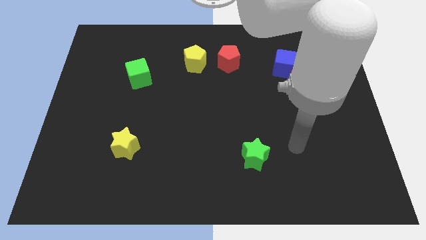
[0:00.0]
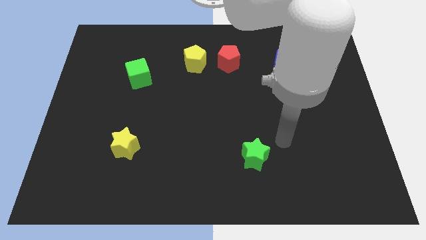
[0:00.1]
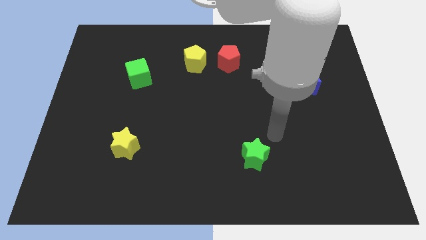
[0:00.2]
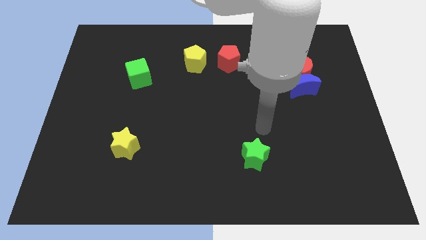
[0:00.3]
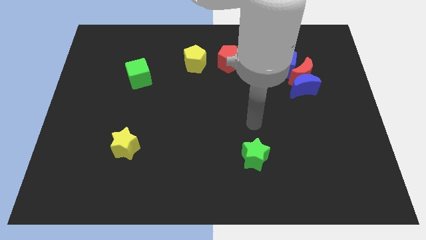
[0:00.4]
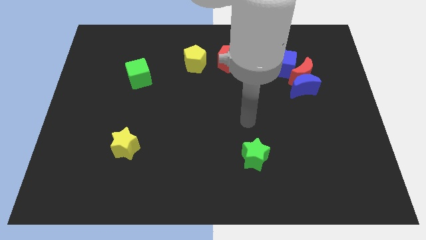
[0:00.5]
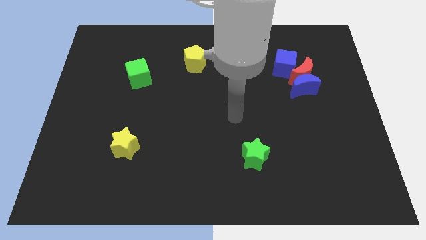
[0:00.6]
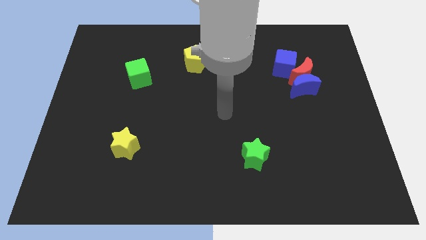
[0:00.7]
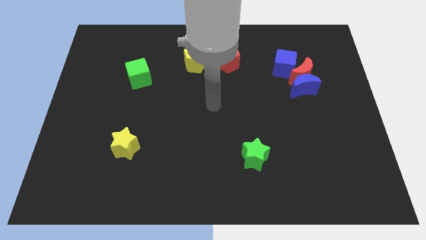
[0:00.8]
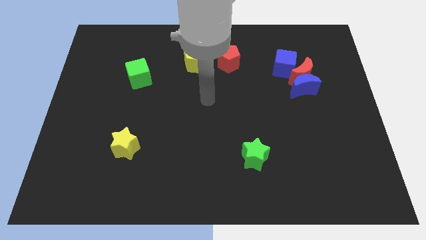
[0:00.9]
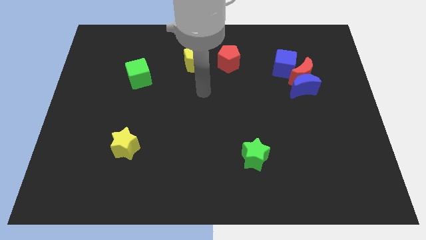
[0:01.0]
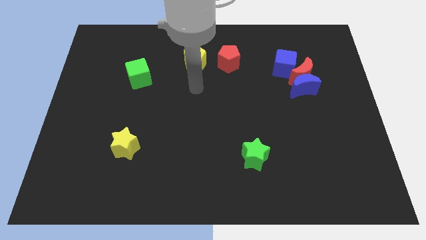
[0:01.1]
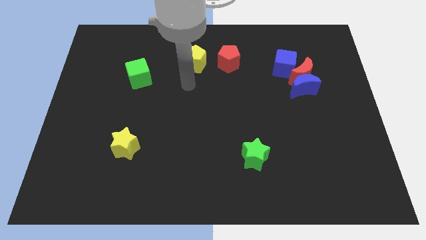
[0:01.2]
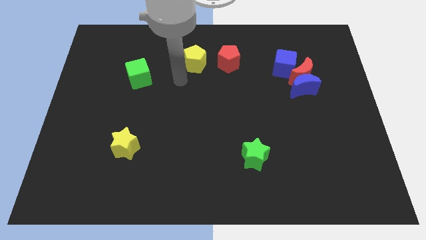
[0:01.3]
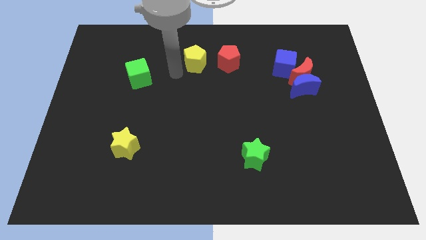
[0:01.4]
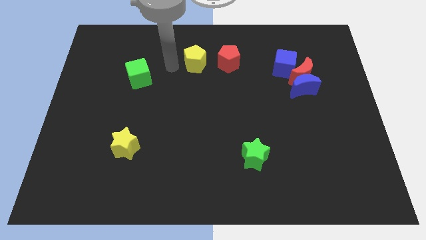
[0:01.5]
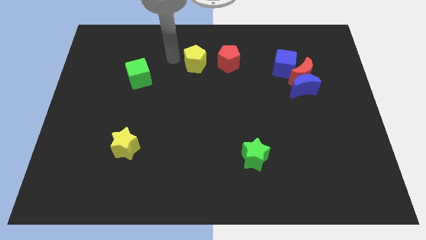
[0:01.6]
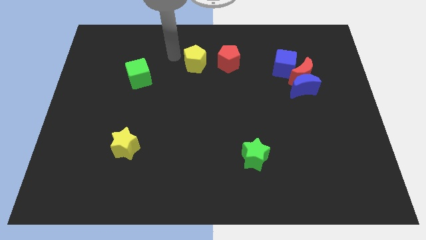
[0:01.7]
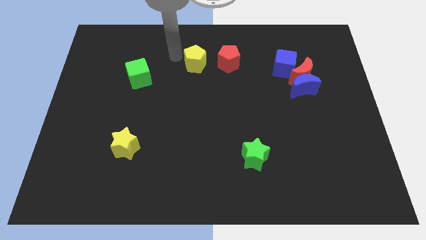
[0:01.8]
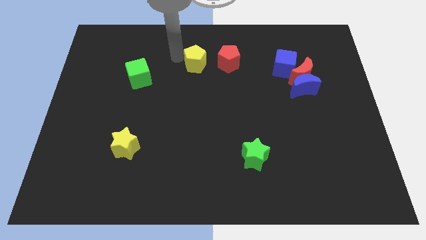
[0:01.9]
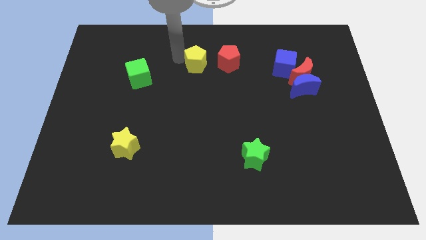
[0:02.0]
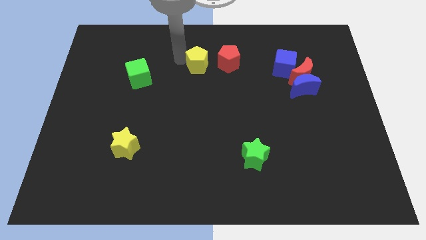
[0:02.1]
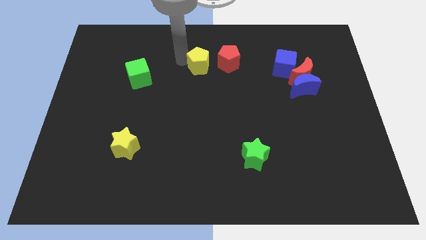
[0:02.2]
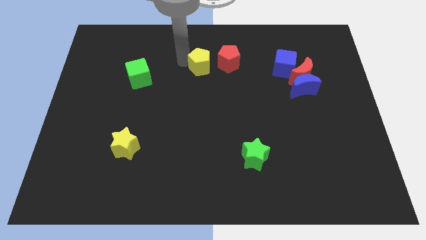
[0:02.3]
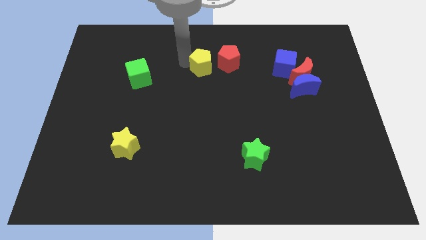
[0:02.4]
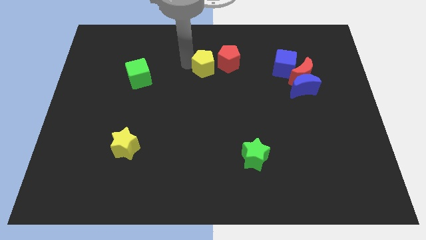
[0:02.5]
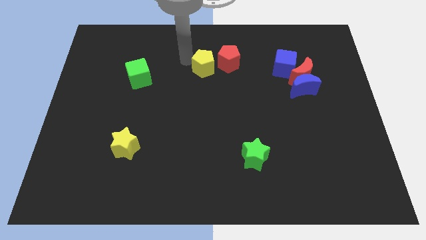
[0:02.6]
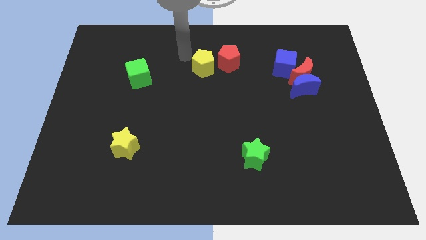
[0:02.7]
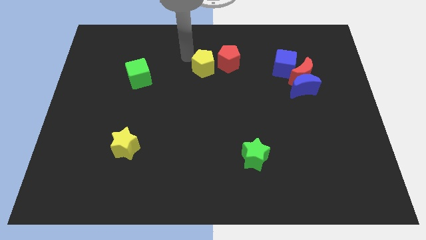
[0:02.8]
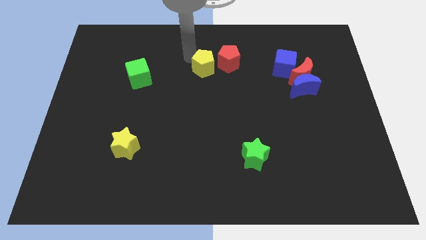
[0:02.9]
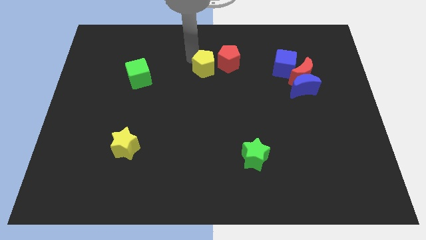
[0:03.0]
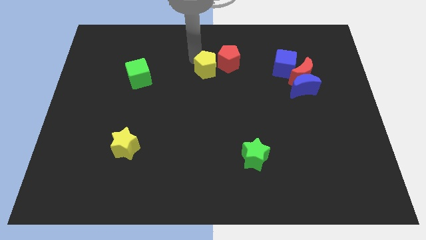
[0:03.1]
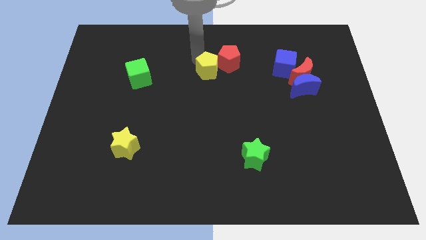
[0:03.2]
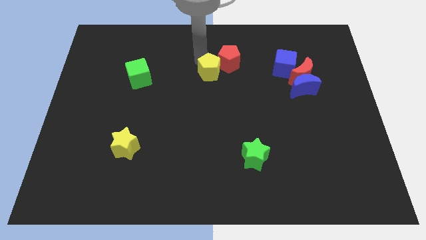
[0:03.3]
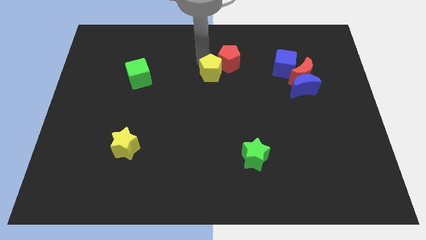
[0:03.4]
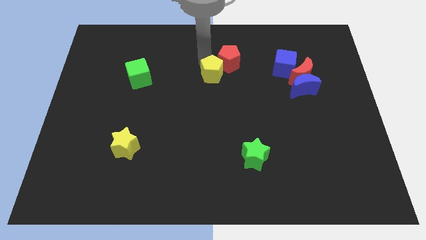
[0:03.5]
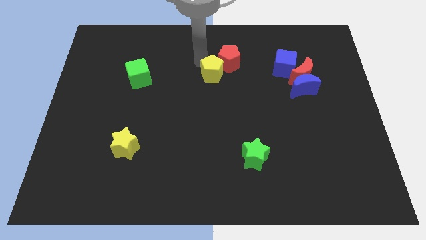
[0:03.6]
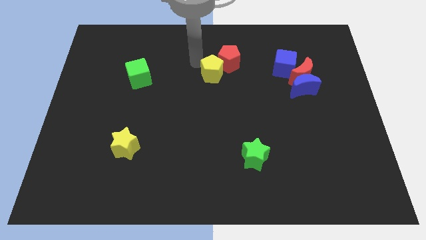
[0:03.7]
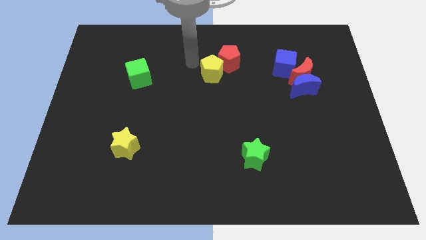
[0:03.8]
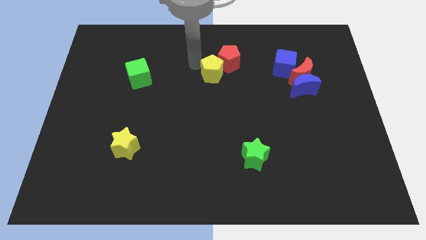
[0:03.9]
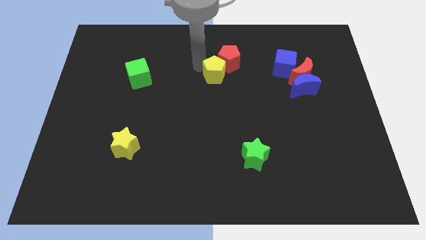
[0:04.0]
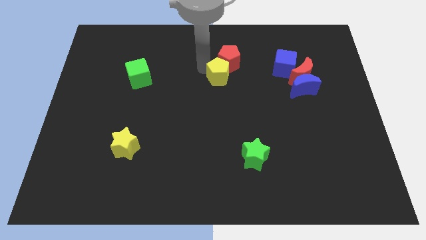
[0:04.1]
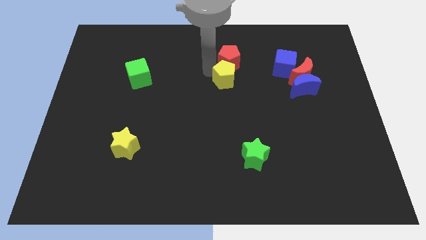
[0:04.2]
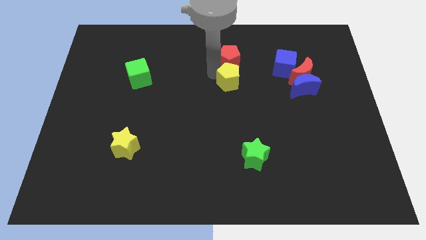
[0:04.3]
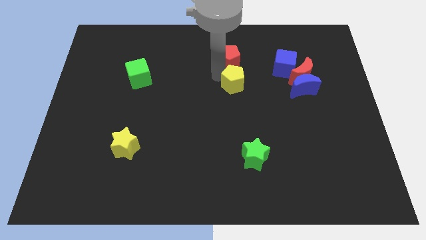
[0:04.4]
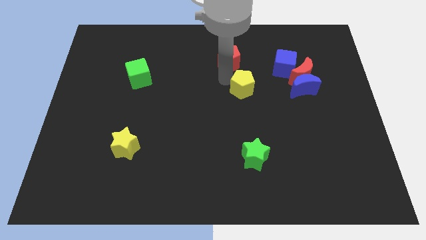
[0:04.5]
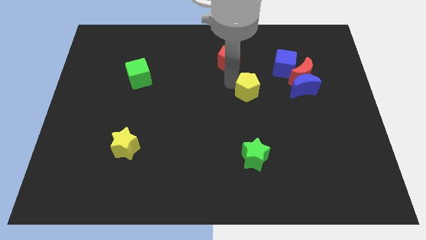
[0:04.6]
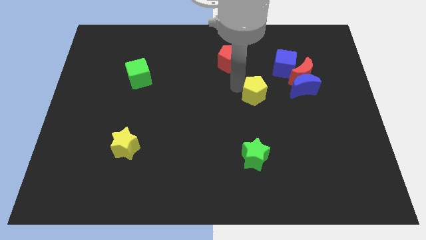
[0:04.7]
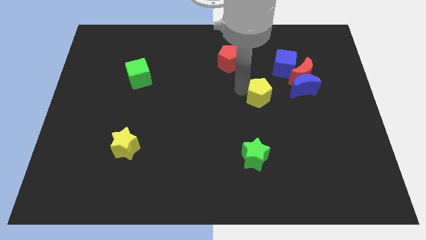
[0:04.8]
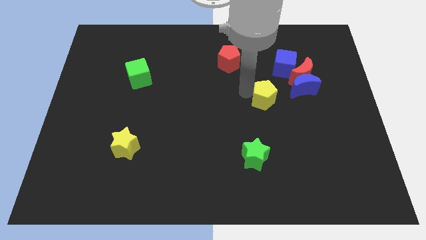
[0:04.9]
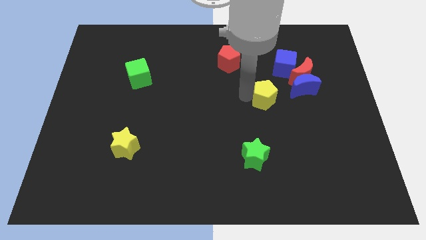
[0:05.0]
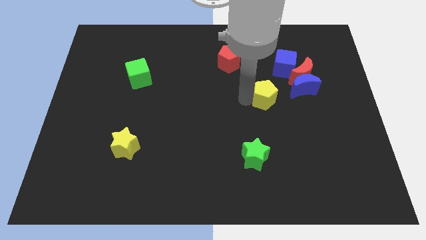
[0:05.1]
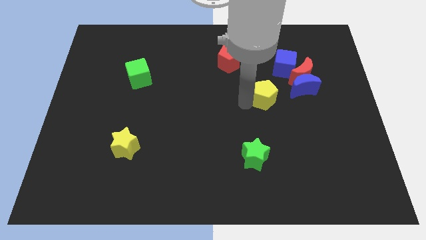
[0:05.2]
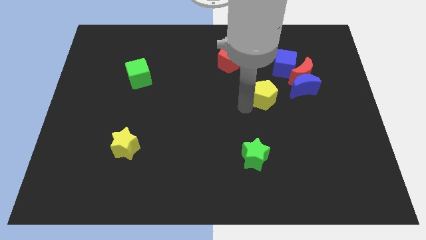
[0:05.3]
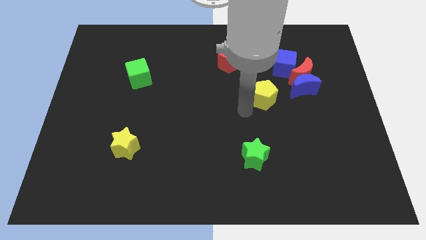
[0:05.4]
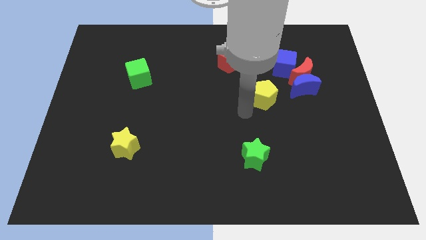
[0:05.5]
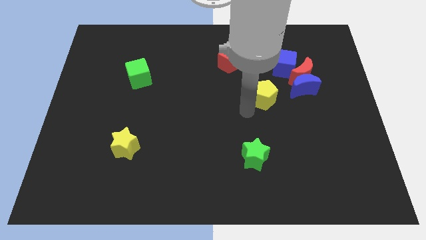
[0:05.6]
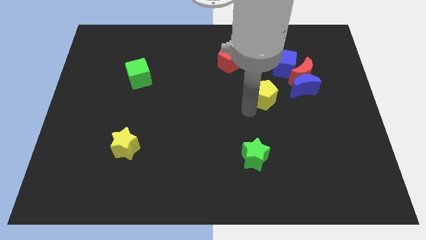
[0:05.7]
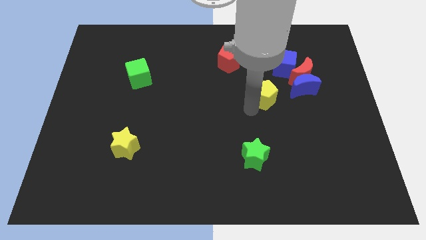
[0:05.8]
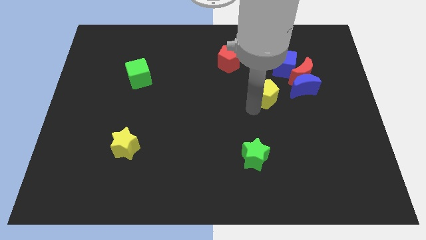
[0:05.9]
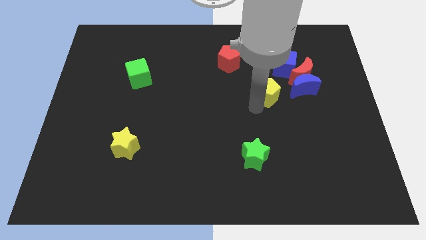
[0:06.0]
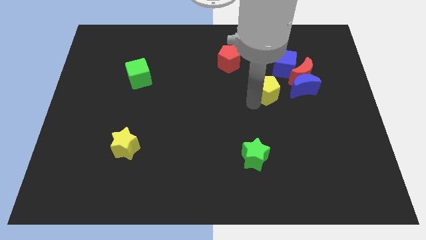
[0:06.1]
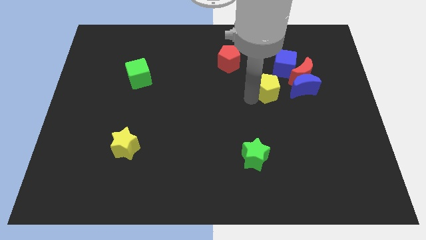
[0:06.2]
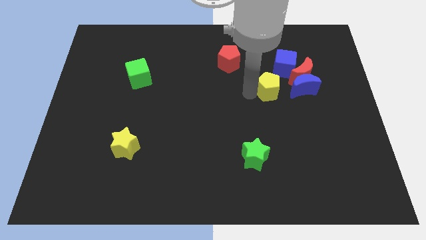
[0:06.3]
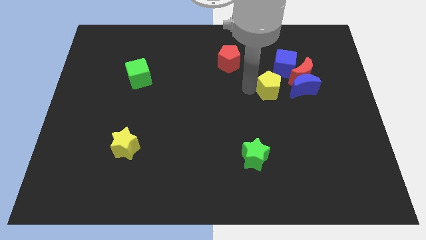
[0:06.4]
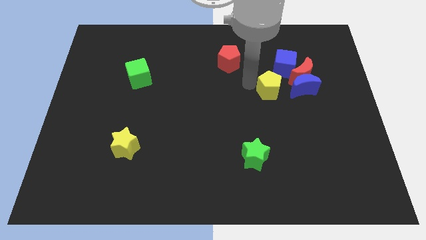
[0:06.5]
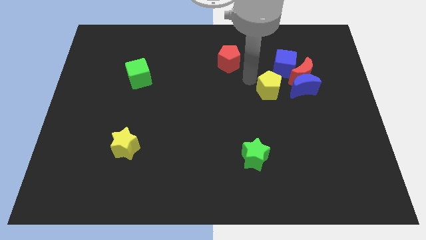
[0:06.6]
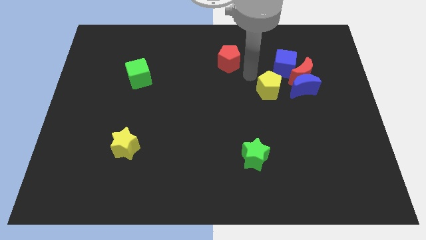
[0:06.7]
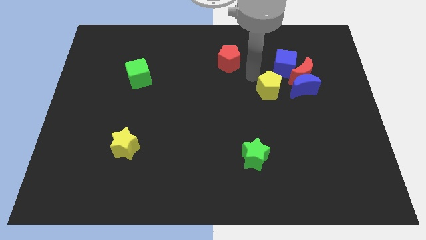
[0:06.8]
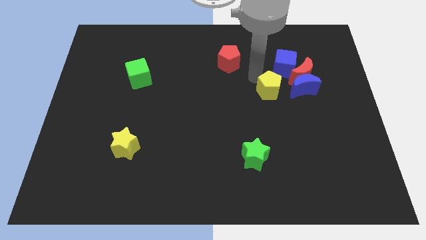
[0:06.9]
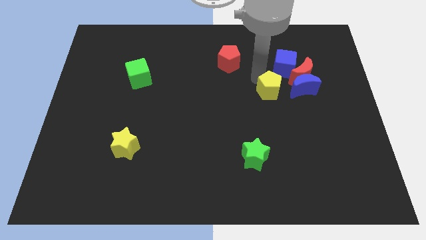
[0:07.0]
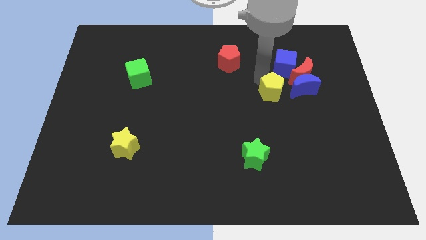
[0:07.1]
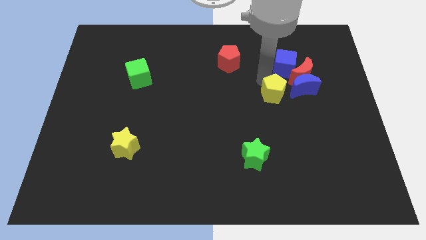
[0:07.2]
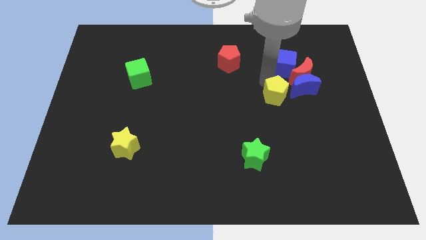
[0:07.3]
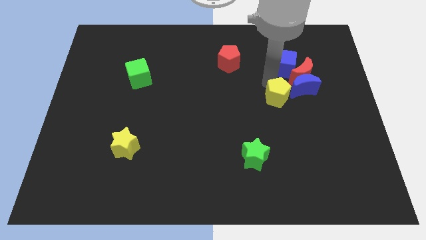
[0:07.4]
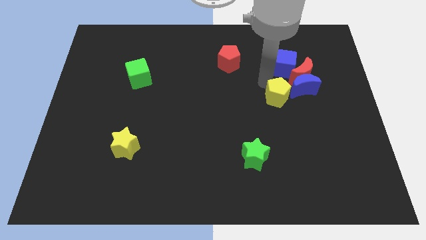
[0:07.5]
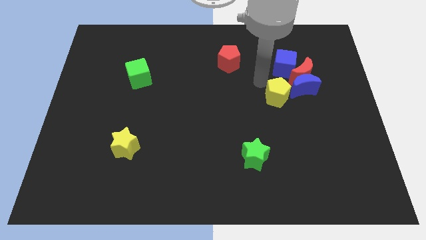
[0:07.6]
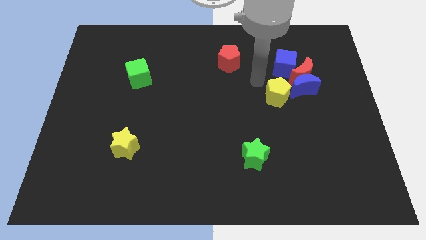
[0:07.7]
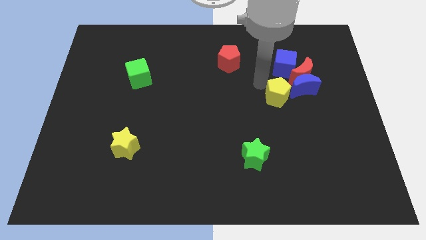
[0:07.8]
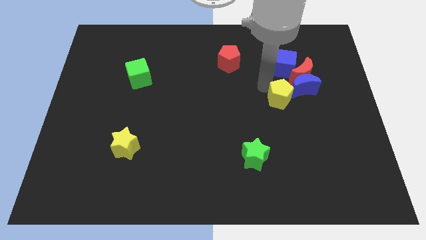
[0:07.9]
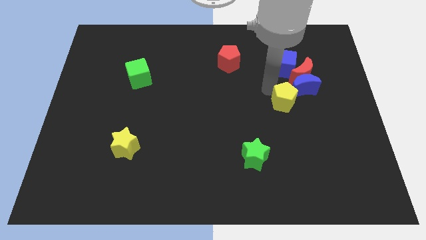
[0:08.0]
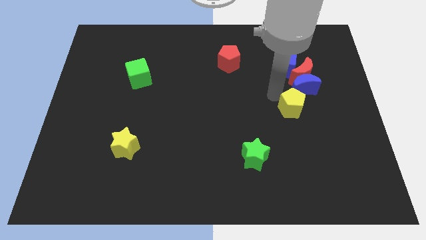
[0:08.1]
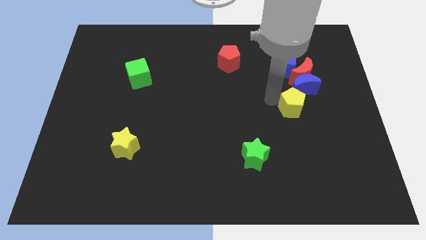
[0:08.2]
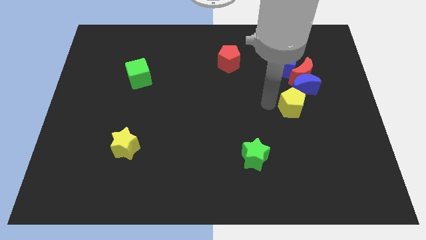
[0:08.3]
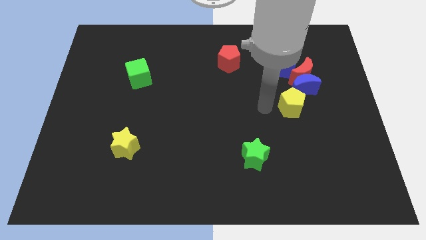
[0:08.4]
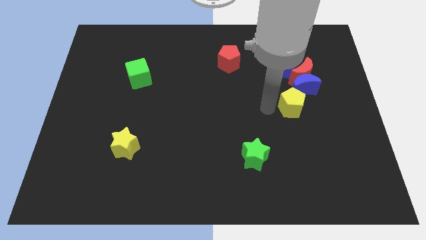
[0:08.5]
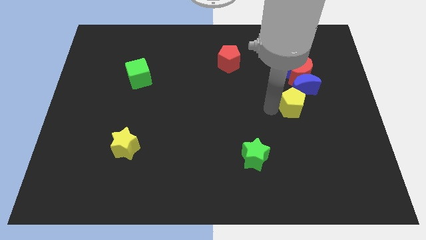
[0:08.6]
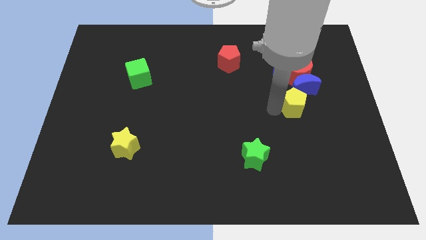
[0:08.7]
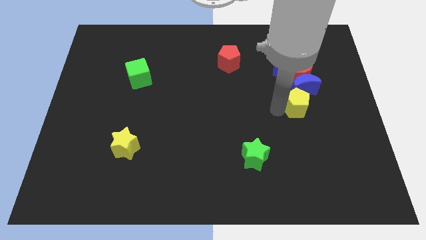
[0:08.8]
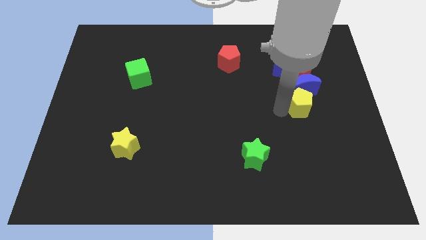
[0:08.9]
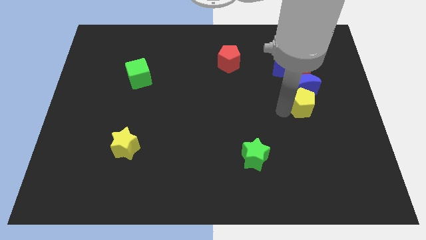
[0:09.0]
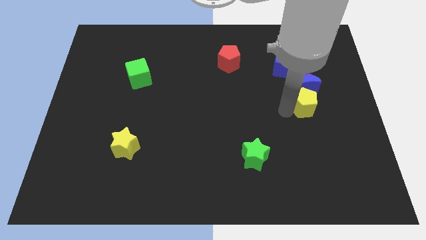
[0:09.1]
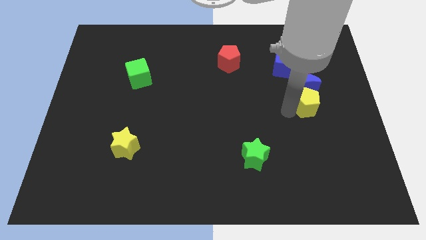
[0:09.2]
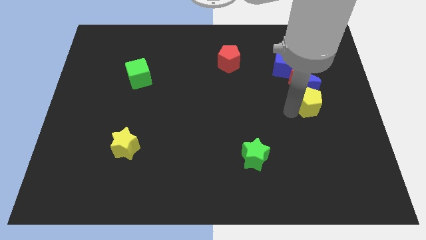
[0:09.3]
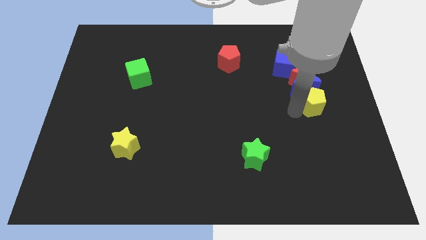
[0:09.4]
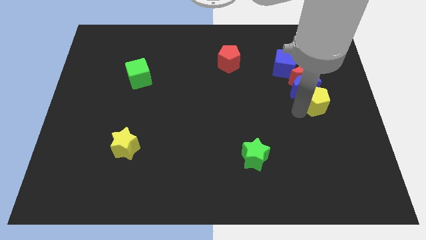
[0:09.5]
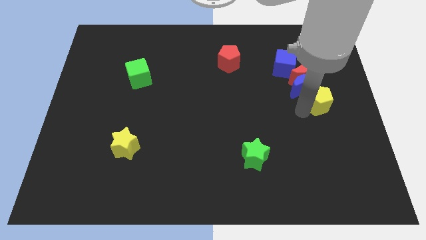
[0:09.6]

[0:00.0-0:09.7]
move the yellow pentagon to the right side
